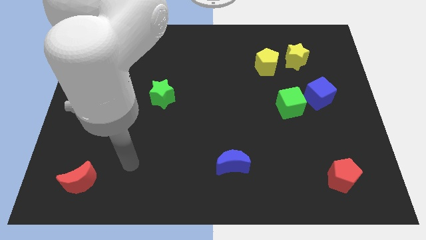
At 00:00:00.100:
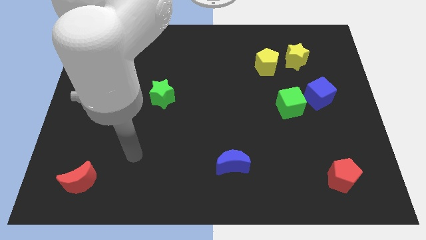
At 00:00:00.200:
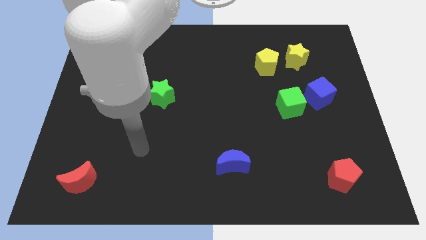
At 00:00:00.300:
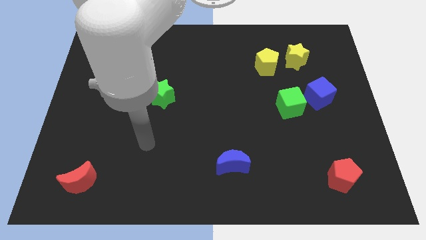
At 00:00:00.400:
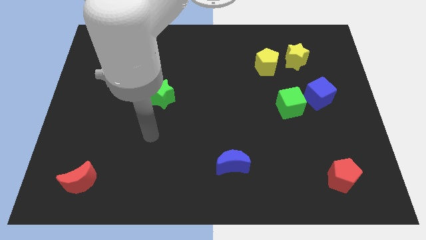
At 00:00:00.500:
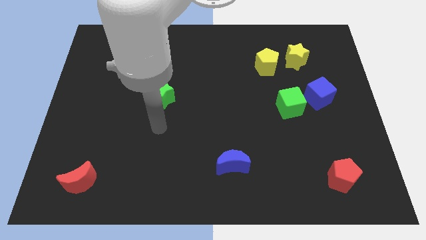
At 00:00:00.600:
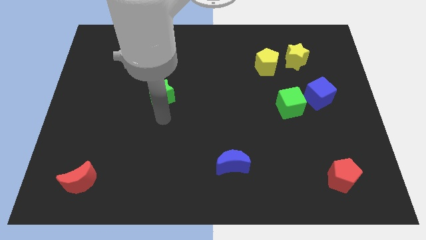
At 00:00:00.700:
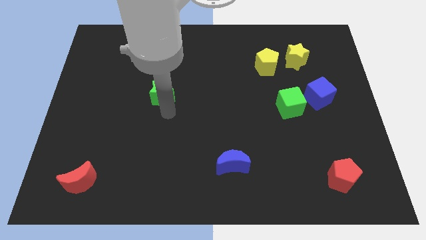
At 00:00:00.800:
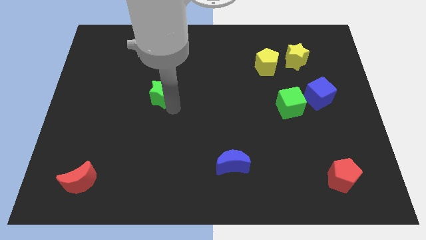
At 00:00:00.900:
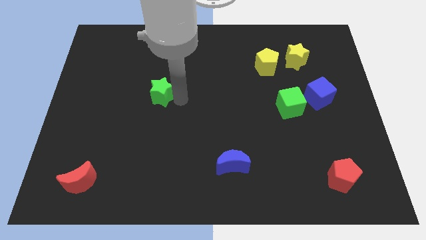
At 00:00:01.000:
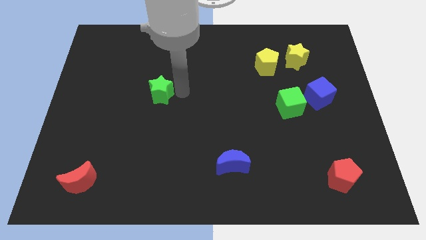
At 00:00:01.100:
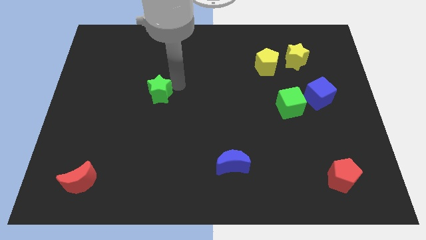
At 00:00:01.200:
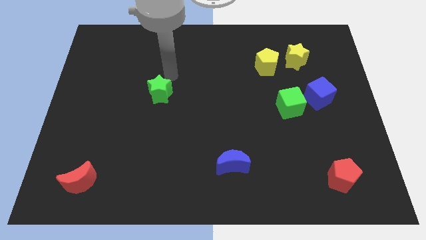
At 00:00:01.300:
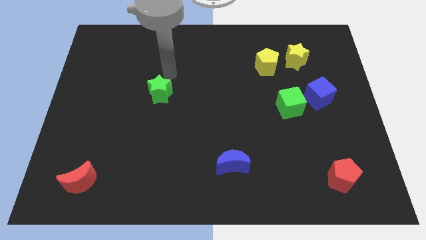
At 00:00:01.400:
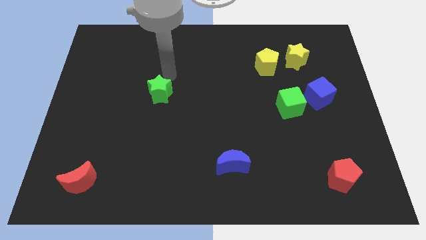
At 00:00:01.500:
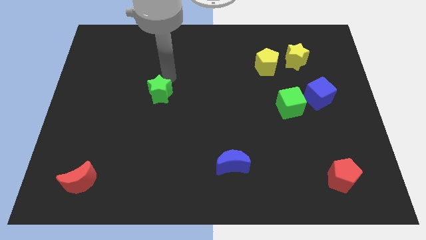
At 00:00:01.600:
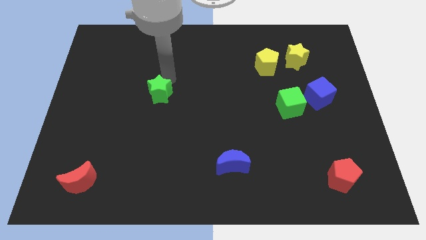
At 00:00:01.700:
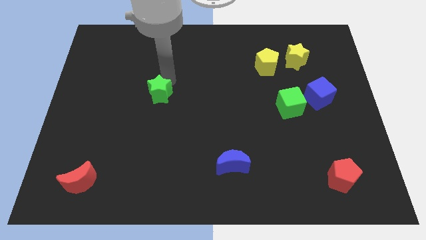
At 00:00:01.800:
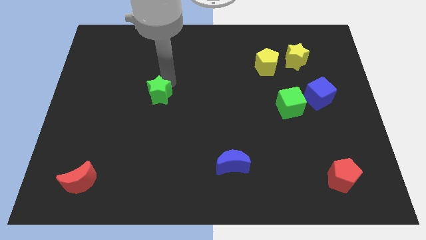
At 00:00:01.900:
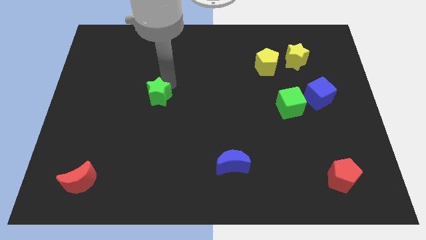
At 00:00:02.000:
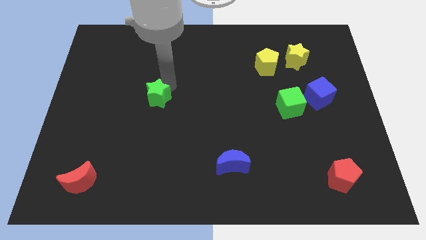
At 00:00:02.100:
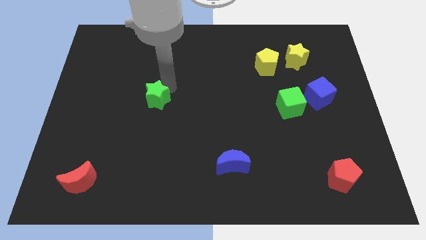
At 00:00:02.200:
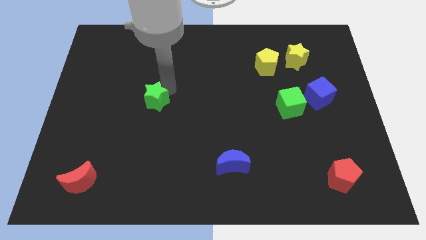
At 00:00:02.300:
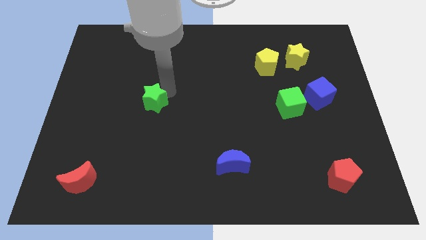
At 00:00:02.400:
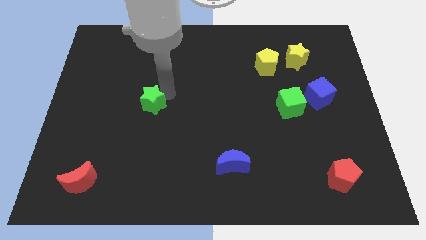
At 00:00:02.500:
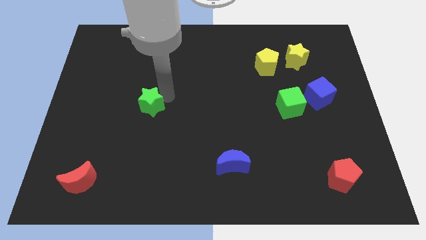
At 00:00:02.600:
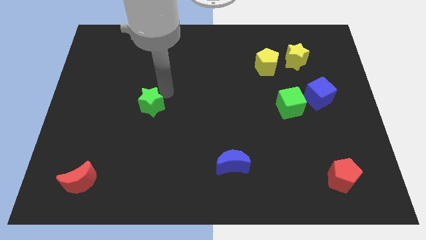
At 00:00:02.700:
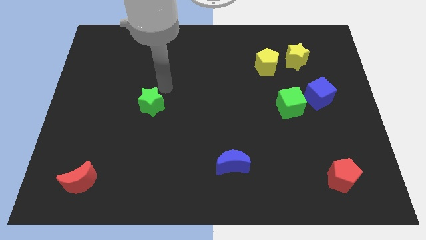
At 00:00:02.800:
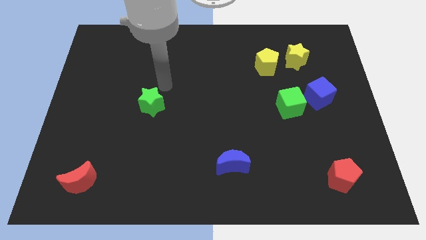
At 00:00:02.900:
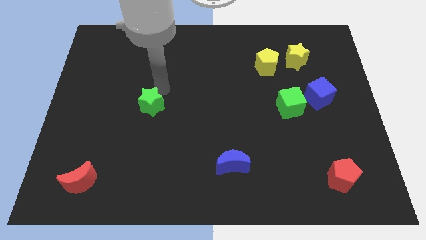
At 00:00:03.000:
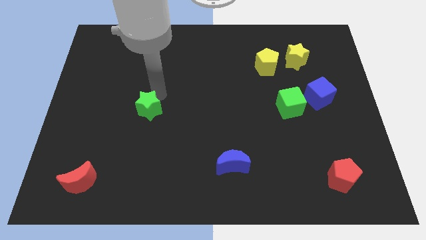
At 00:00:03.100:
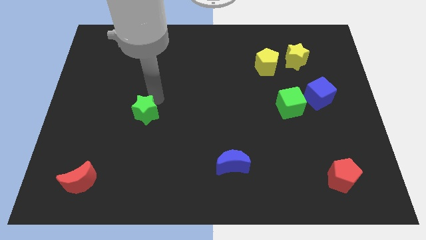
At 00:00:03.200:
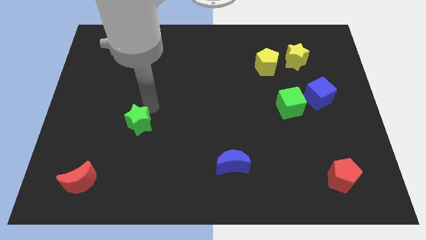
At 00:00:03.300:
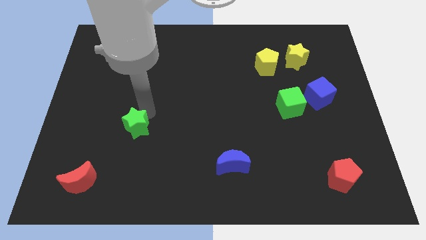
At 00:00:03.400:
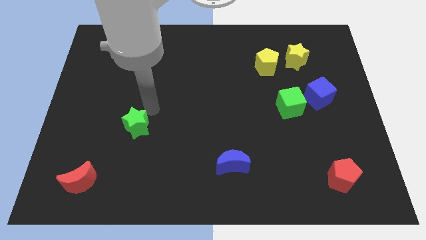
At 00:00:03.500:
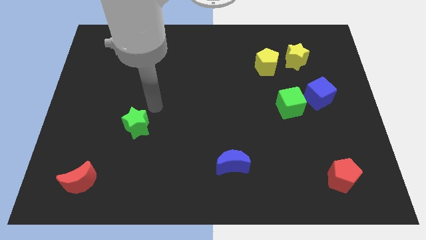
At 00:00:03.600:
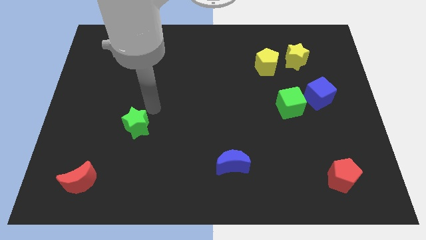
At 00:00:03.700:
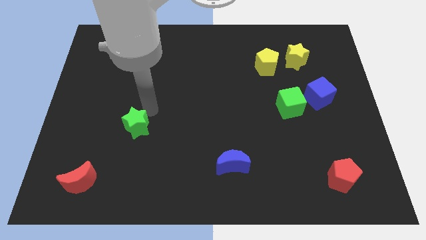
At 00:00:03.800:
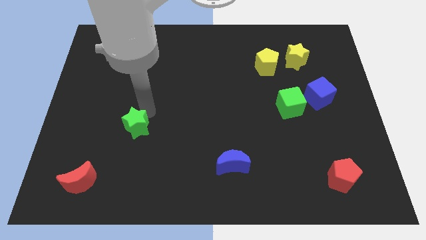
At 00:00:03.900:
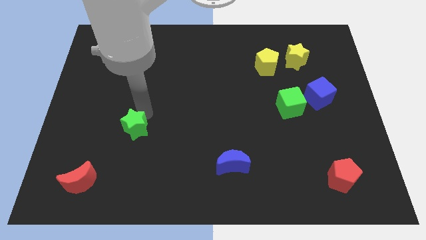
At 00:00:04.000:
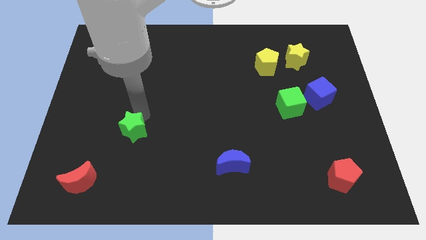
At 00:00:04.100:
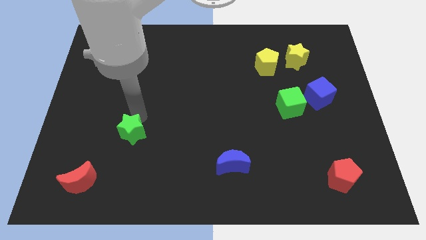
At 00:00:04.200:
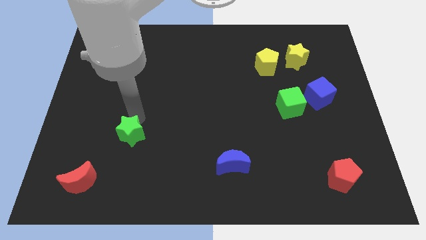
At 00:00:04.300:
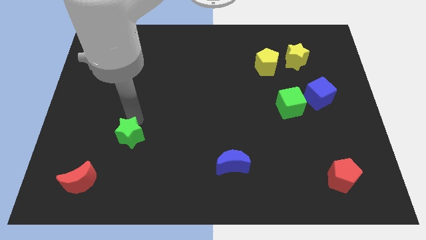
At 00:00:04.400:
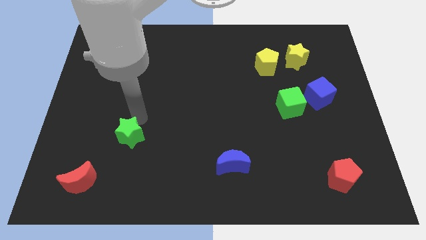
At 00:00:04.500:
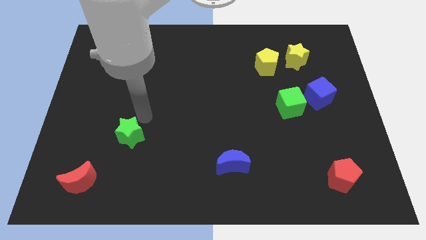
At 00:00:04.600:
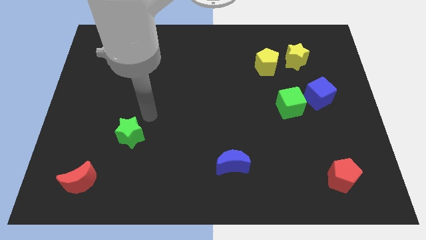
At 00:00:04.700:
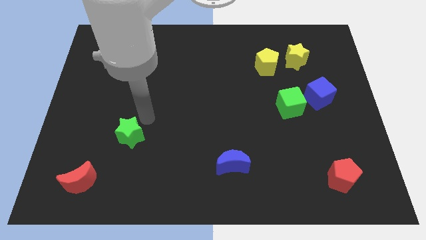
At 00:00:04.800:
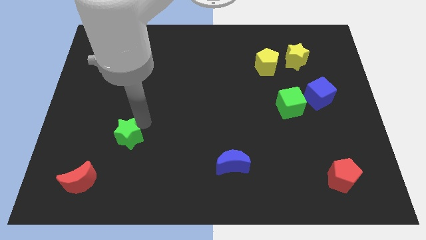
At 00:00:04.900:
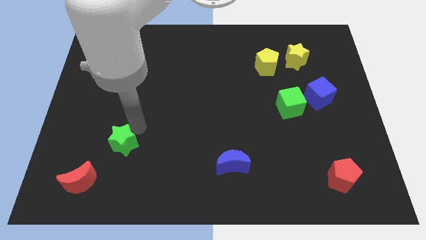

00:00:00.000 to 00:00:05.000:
push the green star diagonally up and to the right of the red moon

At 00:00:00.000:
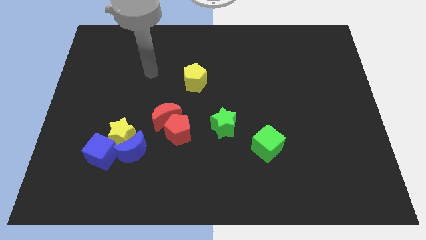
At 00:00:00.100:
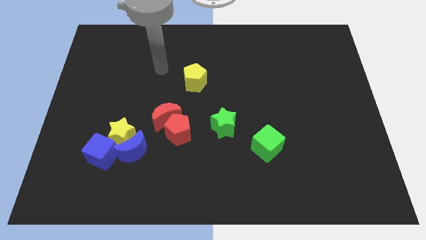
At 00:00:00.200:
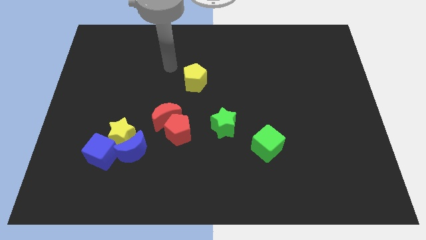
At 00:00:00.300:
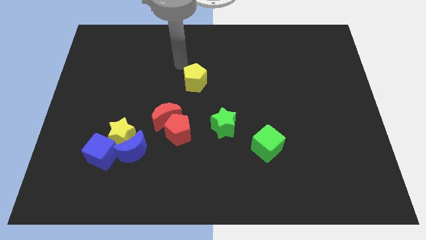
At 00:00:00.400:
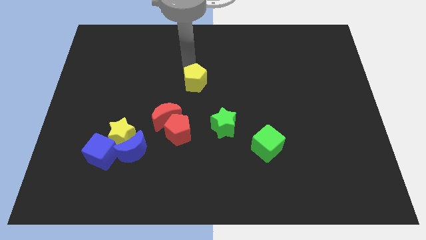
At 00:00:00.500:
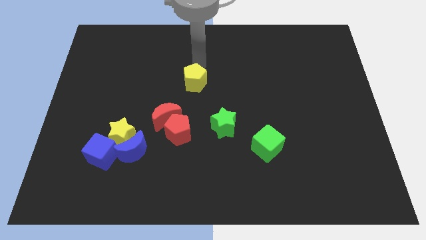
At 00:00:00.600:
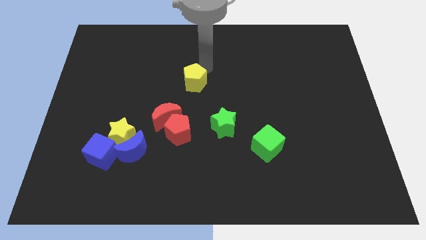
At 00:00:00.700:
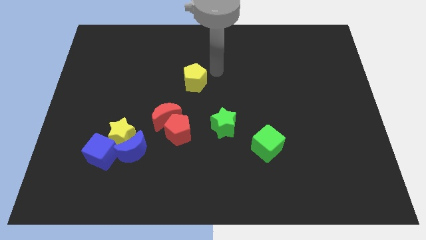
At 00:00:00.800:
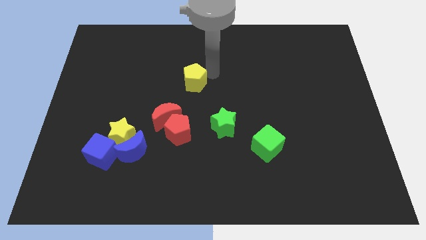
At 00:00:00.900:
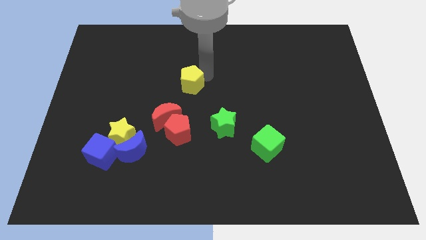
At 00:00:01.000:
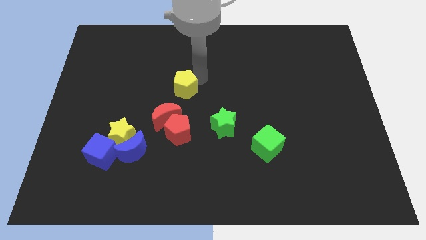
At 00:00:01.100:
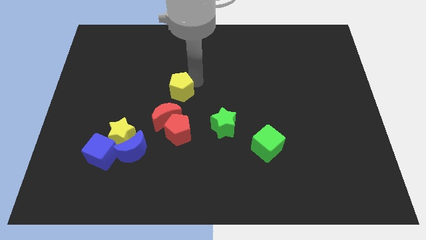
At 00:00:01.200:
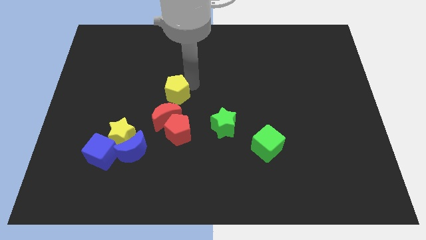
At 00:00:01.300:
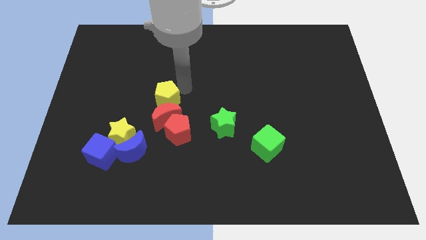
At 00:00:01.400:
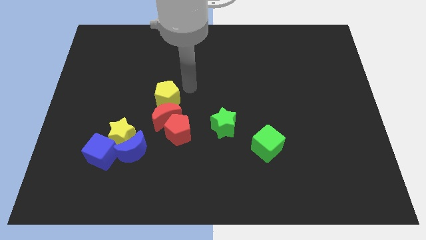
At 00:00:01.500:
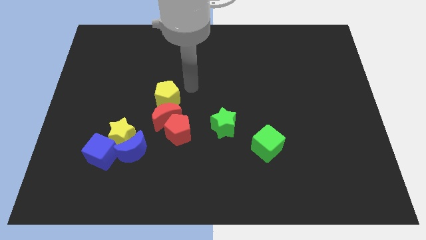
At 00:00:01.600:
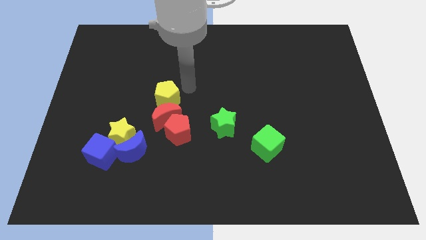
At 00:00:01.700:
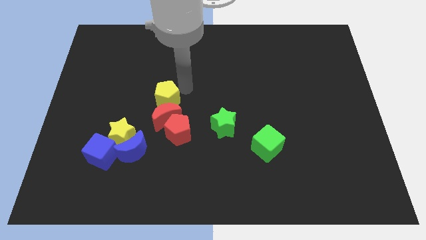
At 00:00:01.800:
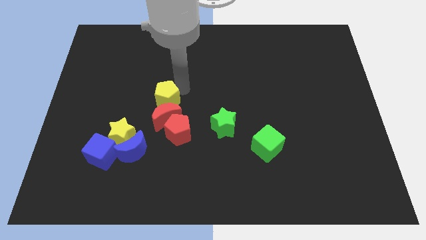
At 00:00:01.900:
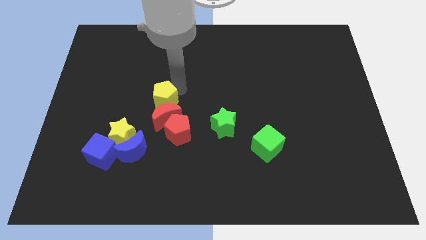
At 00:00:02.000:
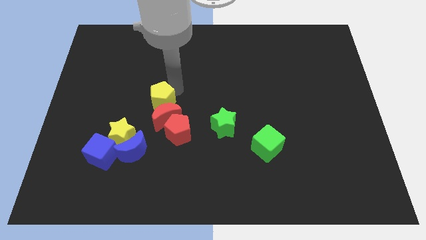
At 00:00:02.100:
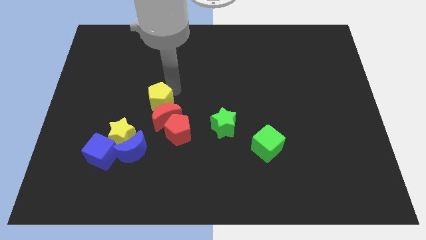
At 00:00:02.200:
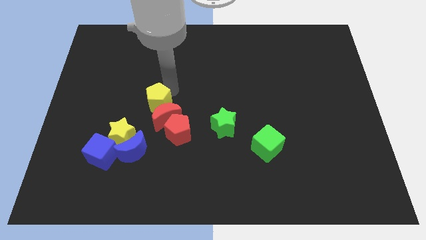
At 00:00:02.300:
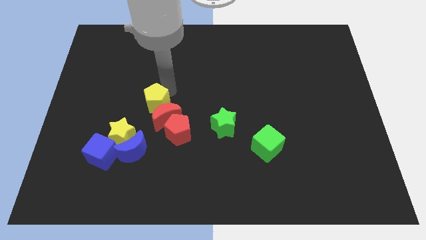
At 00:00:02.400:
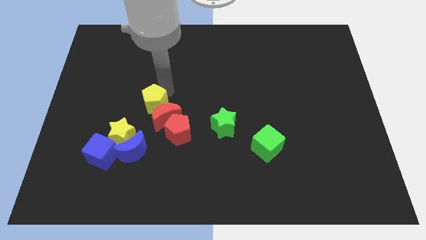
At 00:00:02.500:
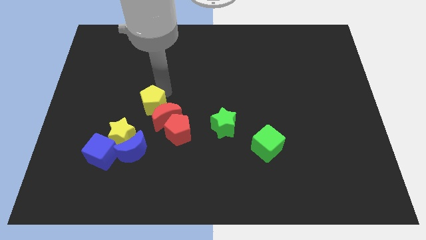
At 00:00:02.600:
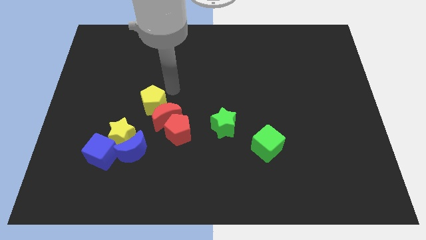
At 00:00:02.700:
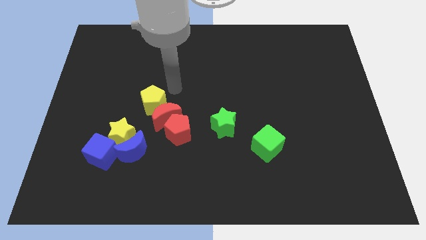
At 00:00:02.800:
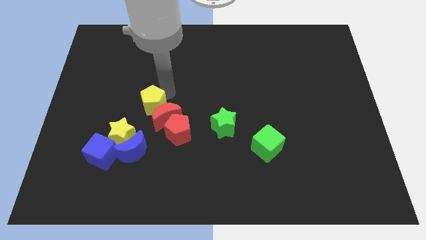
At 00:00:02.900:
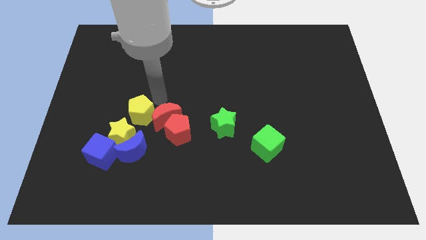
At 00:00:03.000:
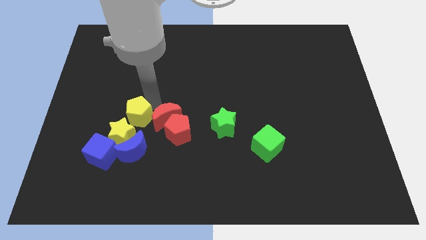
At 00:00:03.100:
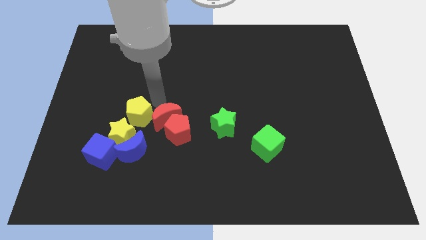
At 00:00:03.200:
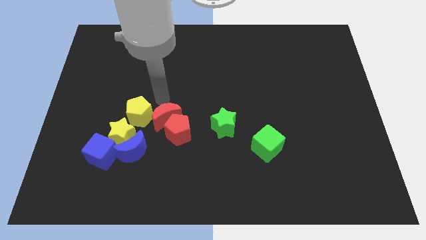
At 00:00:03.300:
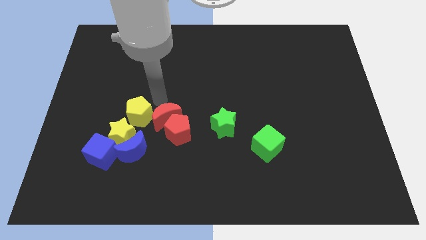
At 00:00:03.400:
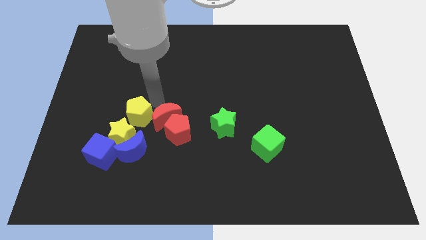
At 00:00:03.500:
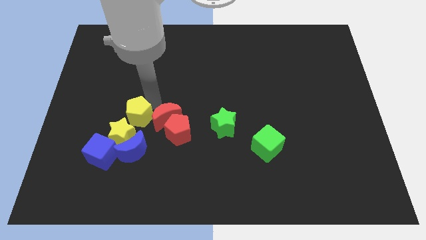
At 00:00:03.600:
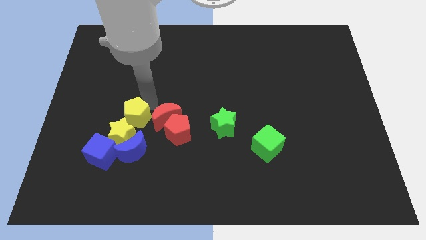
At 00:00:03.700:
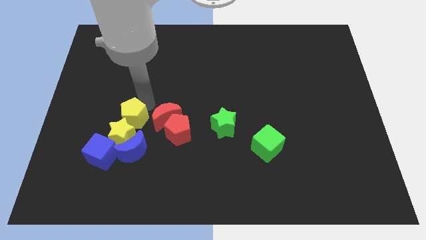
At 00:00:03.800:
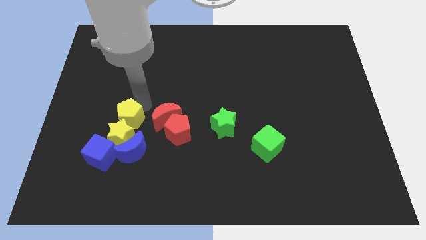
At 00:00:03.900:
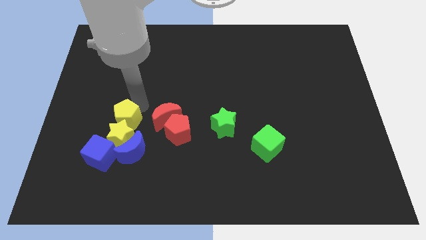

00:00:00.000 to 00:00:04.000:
slide the yellow pentagon diagonally up and to the left of the blue moon
